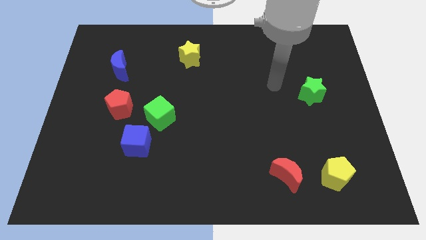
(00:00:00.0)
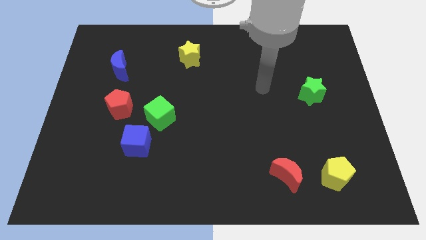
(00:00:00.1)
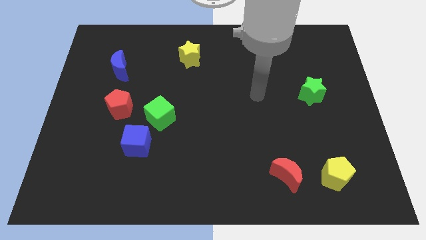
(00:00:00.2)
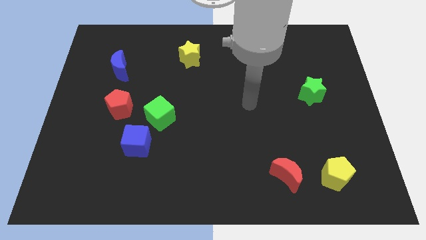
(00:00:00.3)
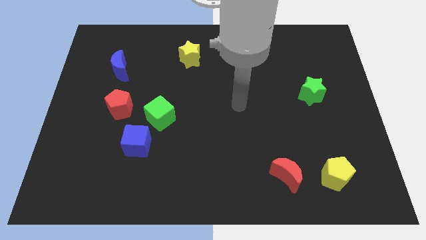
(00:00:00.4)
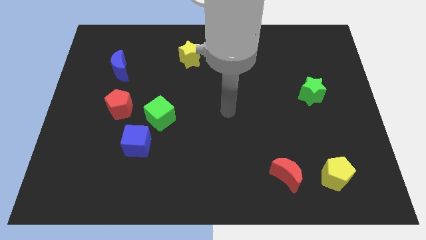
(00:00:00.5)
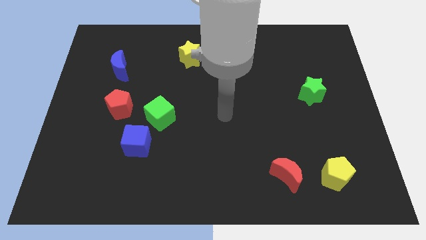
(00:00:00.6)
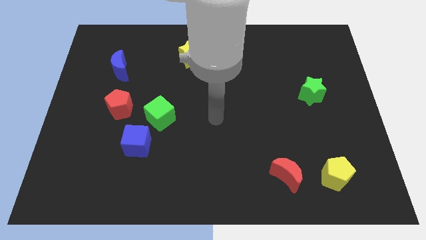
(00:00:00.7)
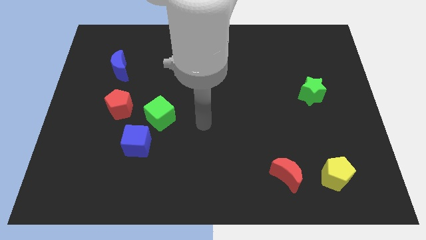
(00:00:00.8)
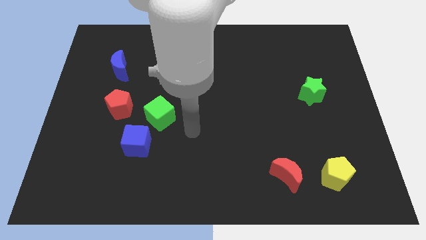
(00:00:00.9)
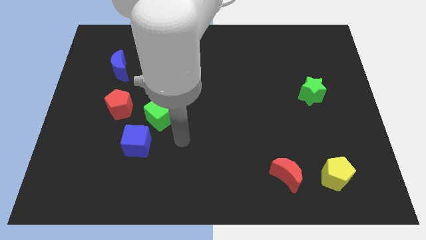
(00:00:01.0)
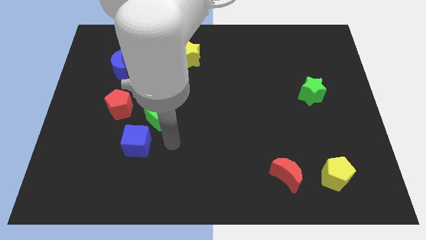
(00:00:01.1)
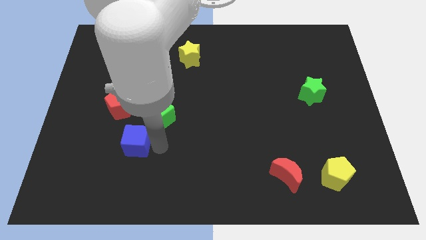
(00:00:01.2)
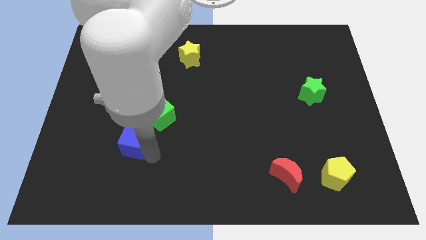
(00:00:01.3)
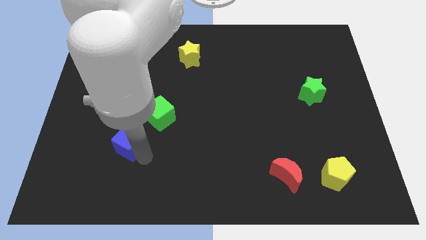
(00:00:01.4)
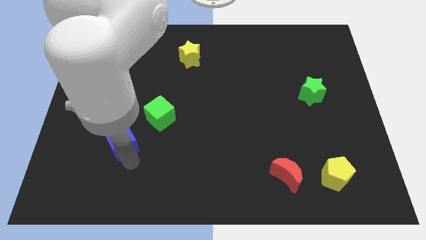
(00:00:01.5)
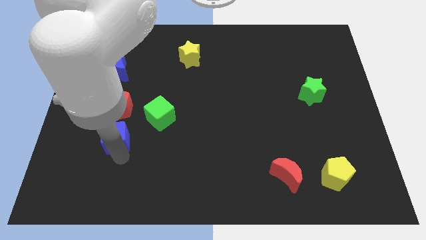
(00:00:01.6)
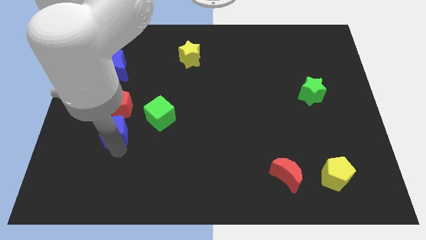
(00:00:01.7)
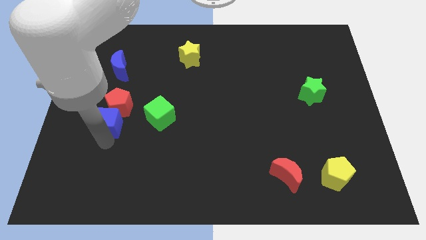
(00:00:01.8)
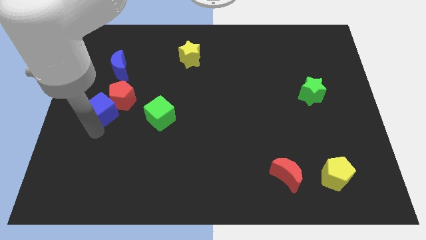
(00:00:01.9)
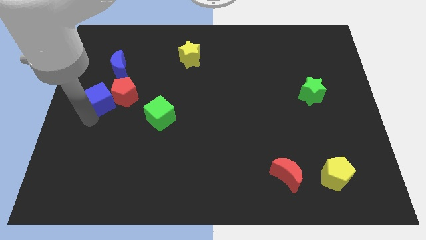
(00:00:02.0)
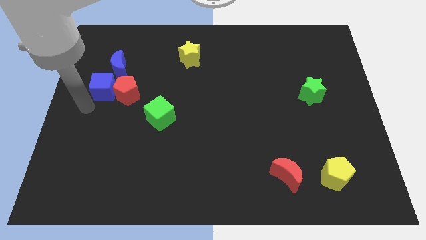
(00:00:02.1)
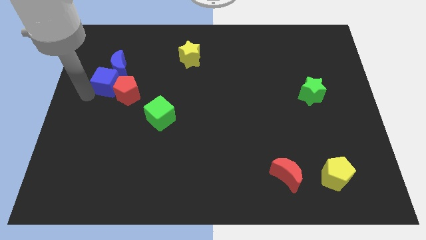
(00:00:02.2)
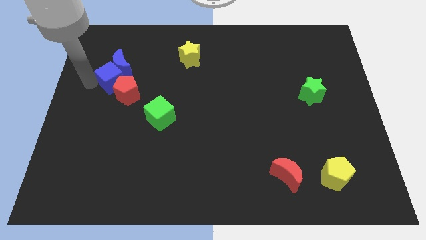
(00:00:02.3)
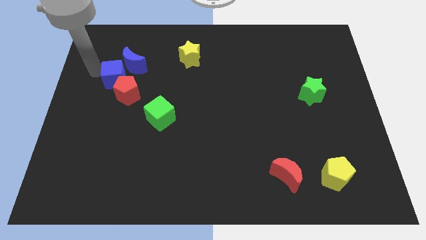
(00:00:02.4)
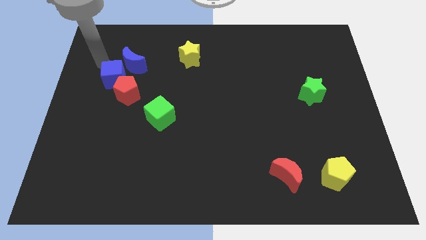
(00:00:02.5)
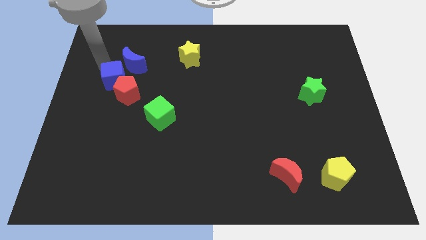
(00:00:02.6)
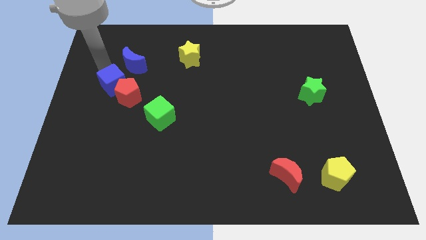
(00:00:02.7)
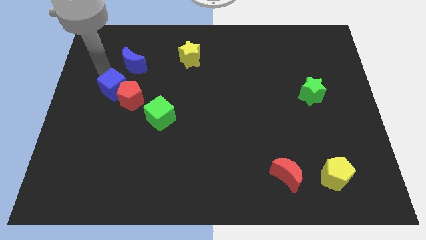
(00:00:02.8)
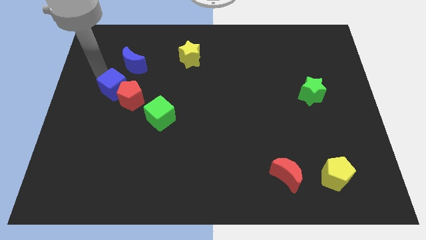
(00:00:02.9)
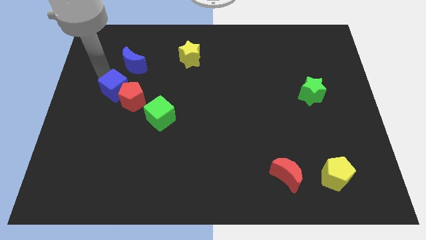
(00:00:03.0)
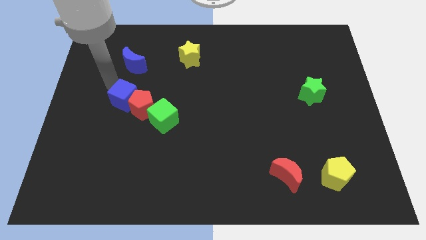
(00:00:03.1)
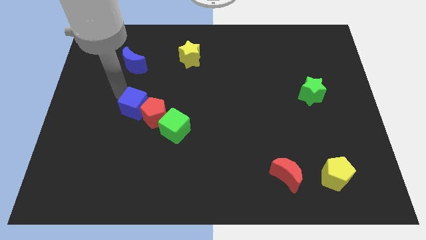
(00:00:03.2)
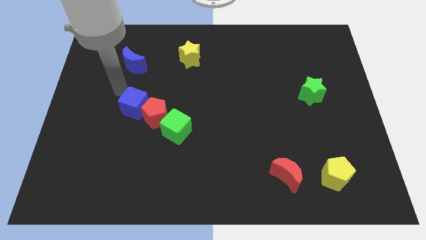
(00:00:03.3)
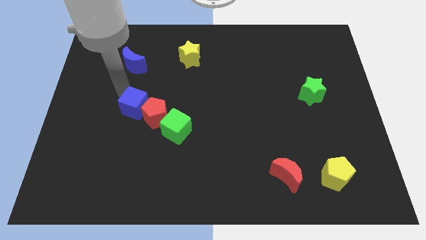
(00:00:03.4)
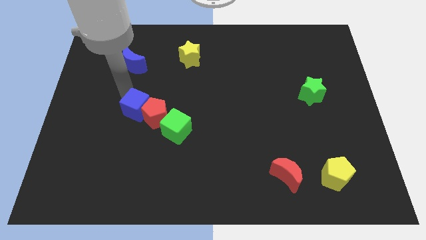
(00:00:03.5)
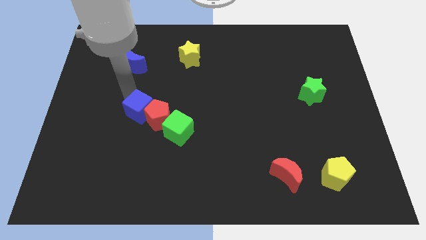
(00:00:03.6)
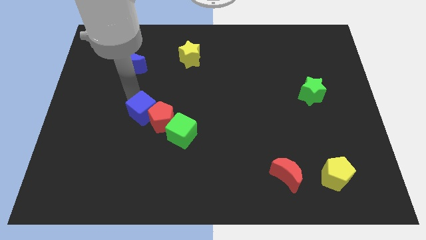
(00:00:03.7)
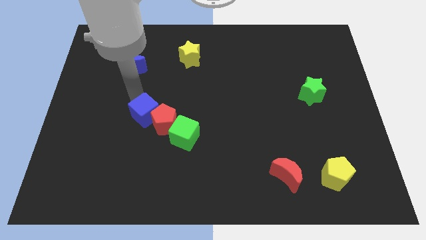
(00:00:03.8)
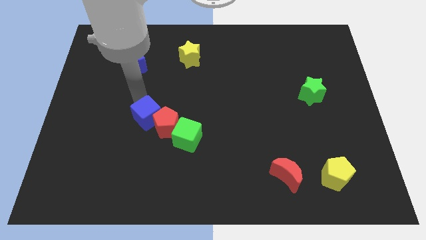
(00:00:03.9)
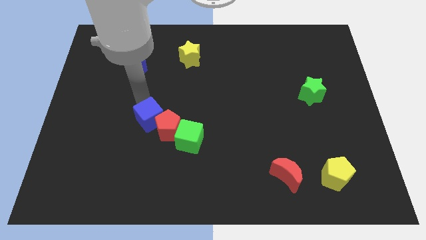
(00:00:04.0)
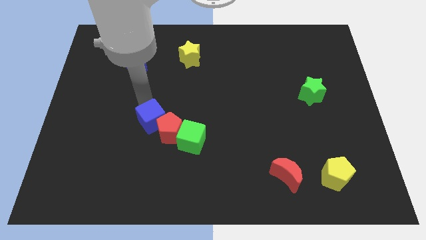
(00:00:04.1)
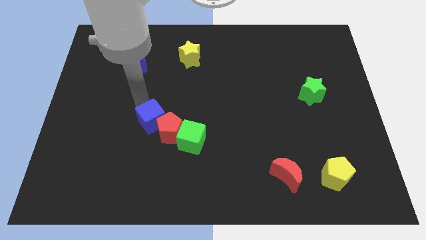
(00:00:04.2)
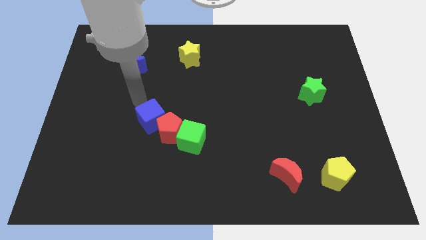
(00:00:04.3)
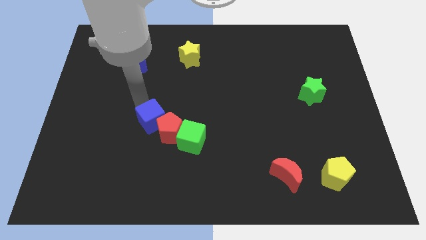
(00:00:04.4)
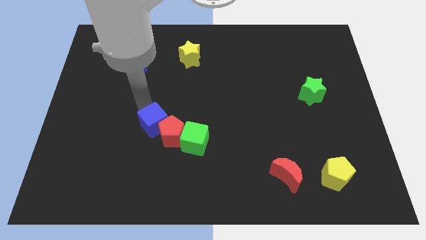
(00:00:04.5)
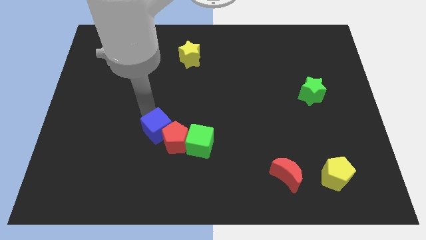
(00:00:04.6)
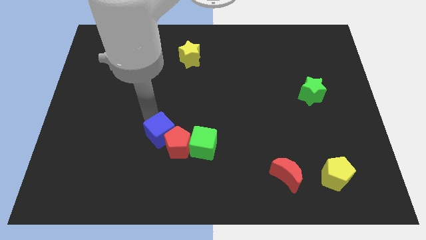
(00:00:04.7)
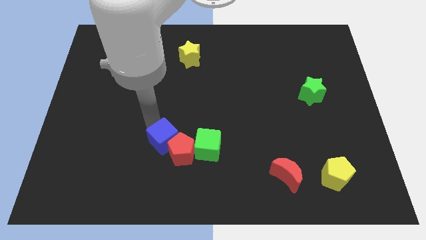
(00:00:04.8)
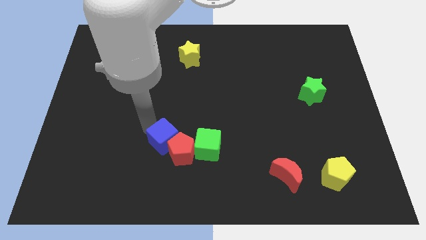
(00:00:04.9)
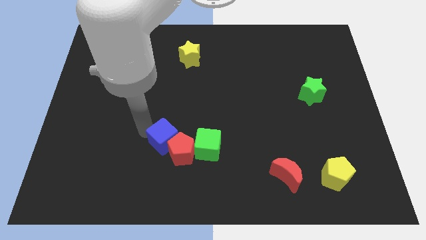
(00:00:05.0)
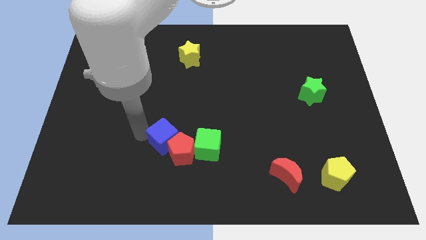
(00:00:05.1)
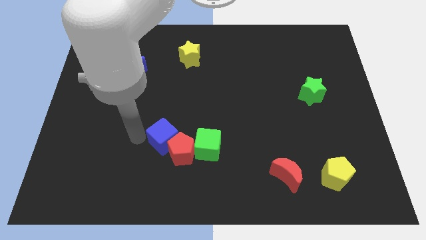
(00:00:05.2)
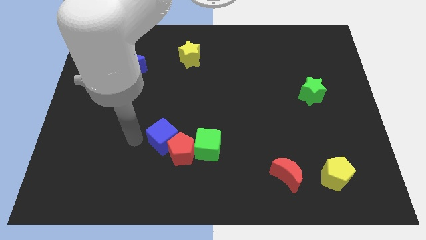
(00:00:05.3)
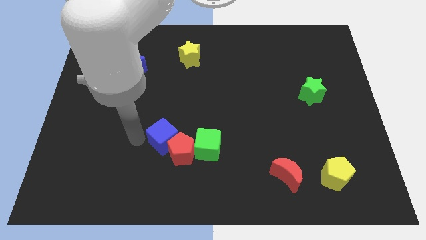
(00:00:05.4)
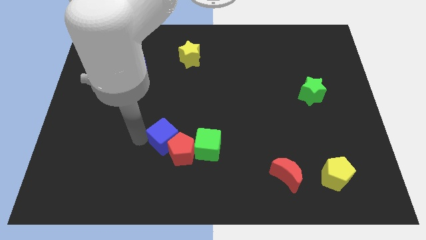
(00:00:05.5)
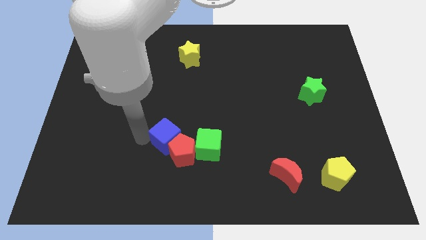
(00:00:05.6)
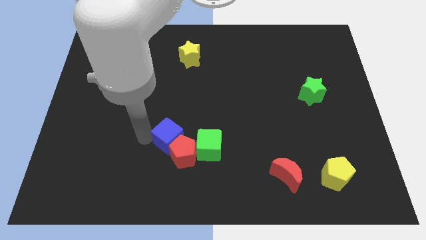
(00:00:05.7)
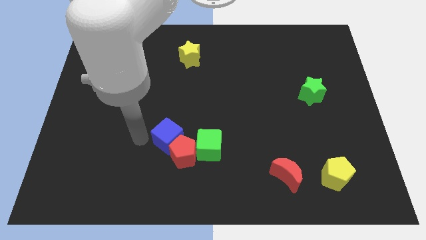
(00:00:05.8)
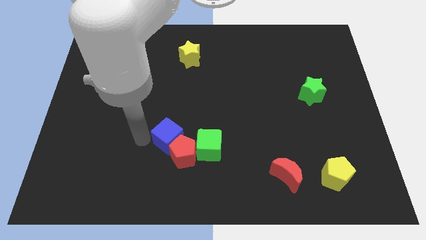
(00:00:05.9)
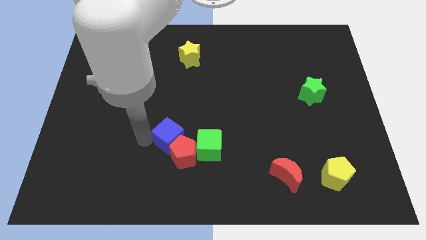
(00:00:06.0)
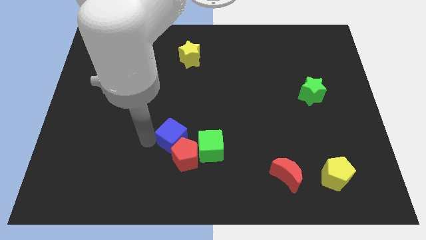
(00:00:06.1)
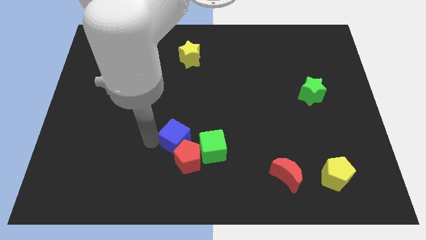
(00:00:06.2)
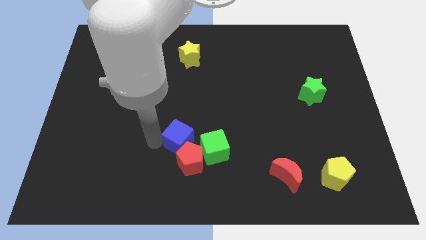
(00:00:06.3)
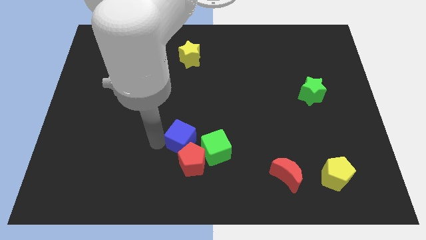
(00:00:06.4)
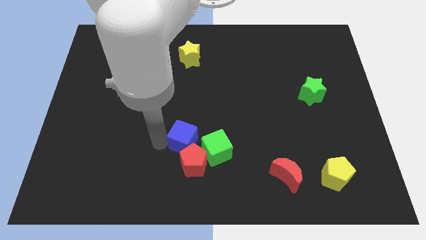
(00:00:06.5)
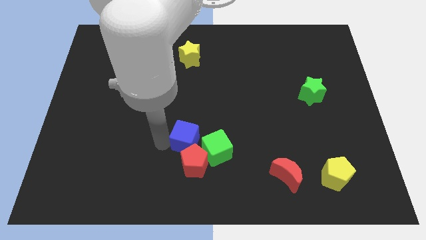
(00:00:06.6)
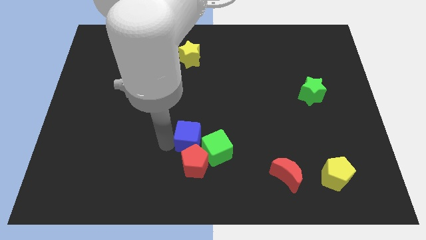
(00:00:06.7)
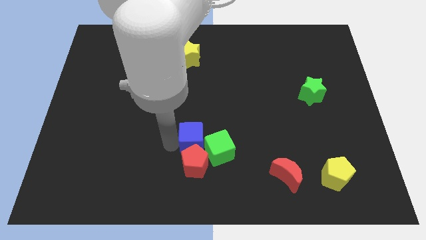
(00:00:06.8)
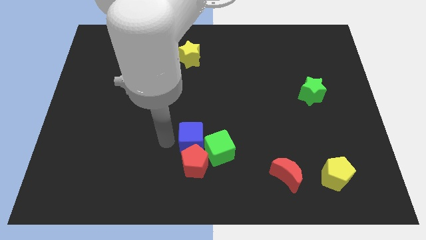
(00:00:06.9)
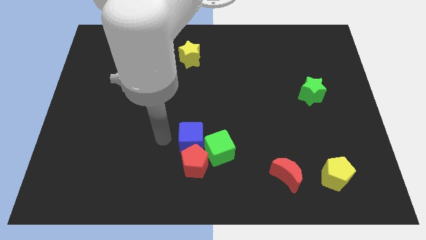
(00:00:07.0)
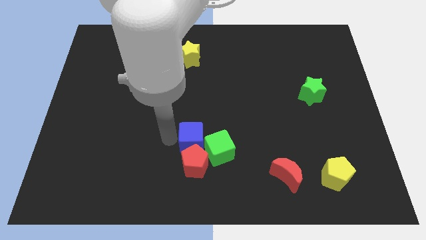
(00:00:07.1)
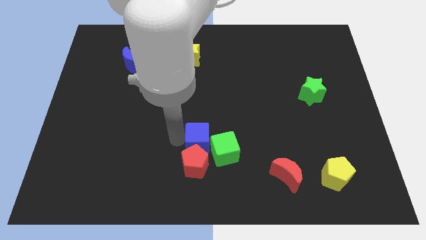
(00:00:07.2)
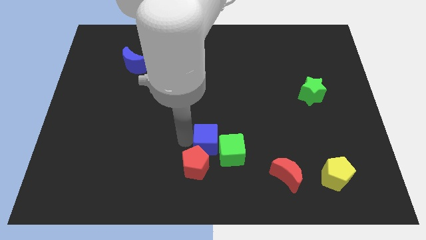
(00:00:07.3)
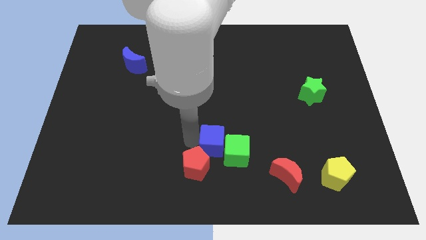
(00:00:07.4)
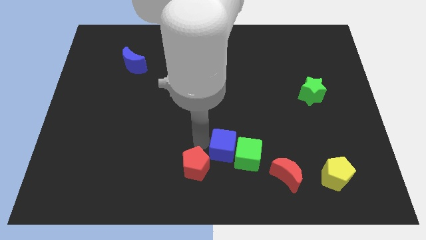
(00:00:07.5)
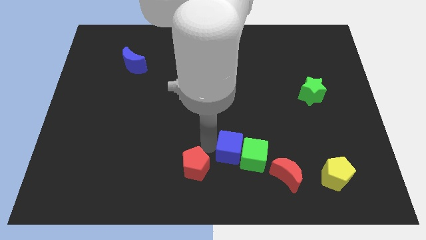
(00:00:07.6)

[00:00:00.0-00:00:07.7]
slide the blue cube right
